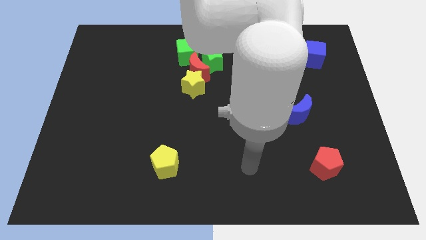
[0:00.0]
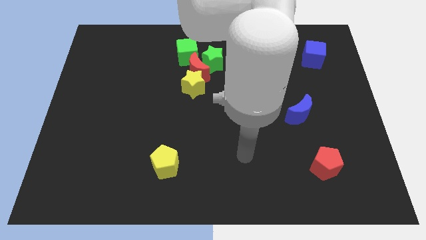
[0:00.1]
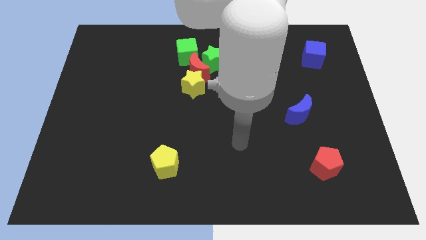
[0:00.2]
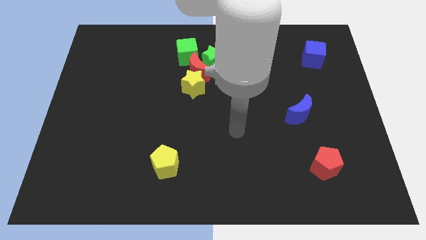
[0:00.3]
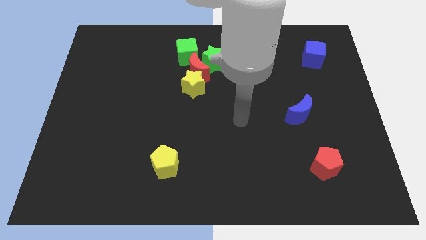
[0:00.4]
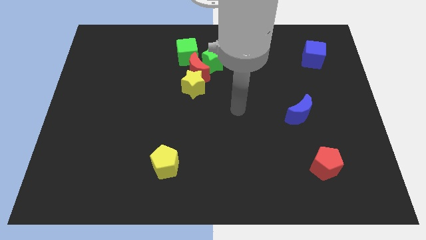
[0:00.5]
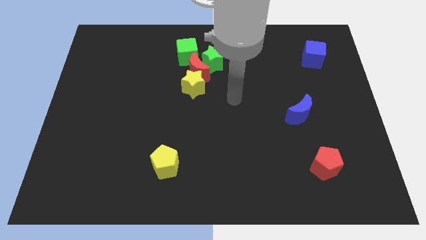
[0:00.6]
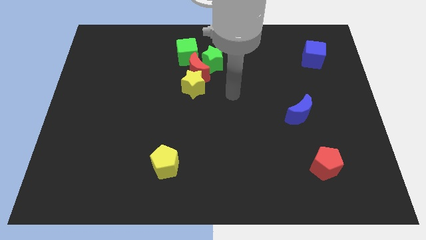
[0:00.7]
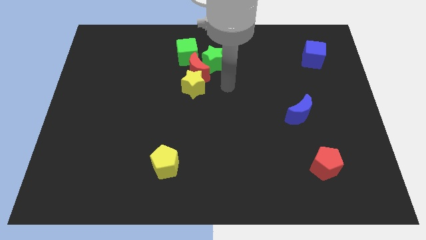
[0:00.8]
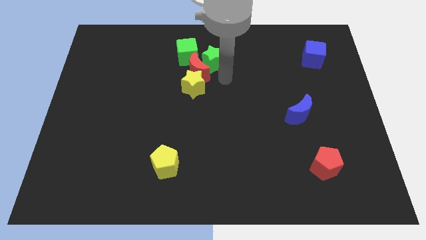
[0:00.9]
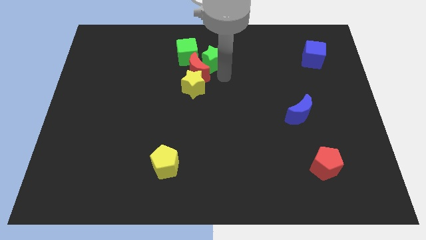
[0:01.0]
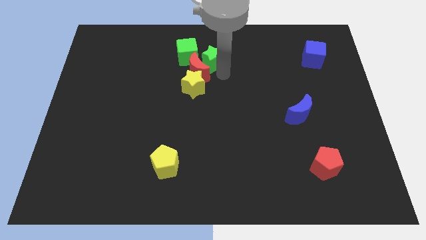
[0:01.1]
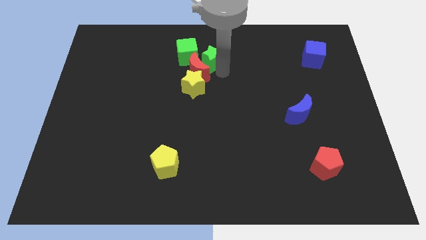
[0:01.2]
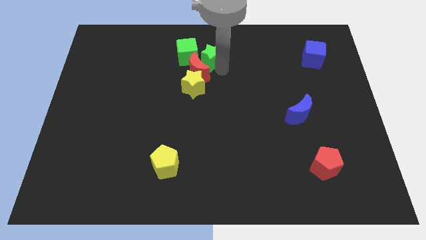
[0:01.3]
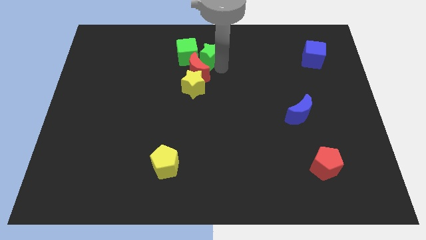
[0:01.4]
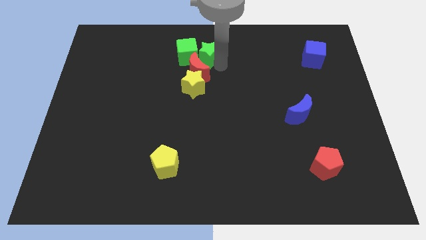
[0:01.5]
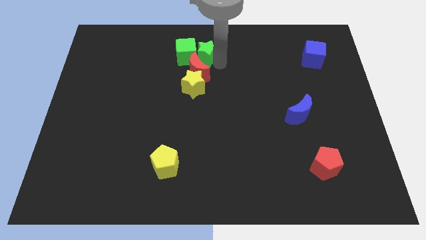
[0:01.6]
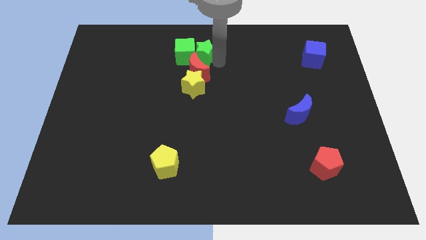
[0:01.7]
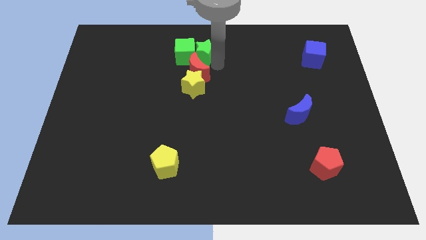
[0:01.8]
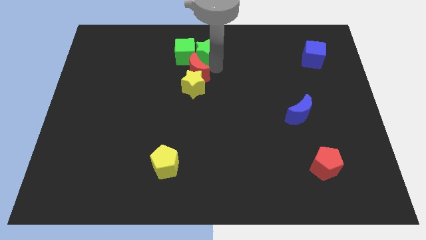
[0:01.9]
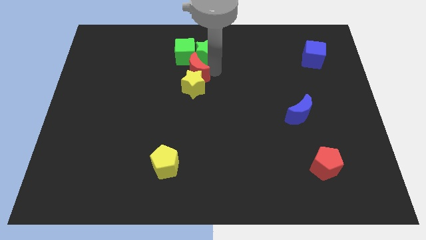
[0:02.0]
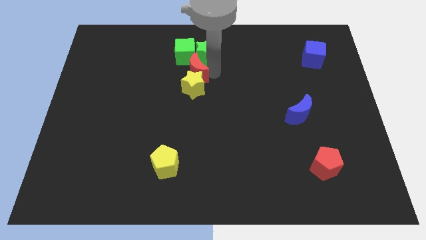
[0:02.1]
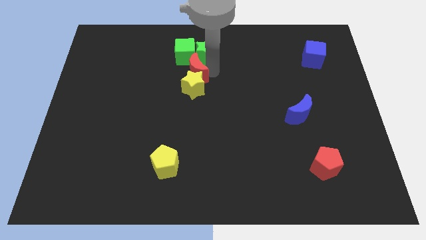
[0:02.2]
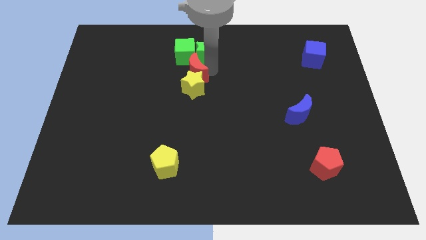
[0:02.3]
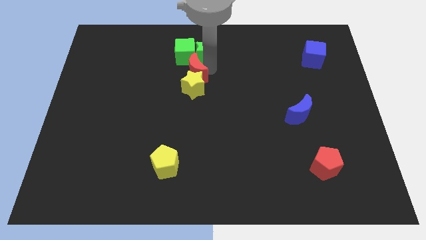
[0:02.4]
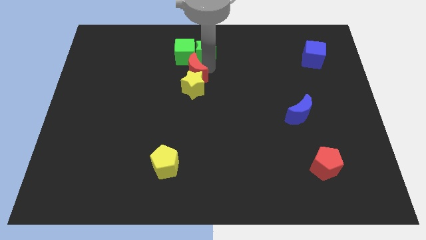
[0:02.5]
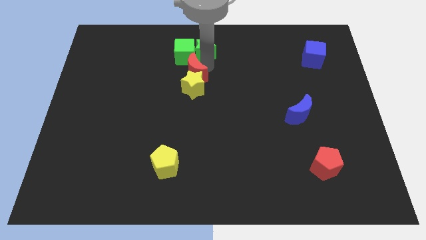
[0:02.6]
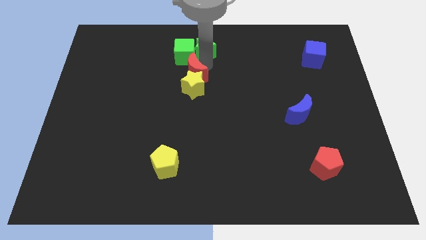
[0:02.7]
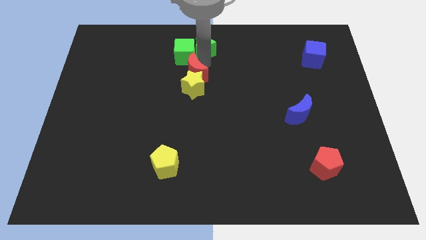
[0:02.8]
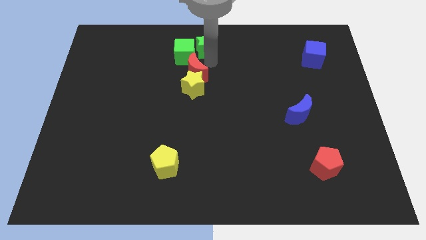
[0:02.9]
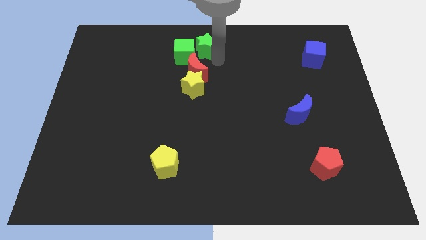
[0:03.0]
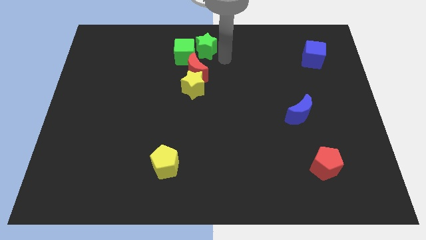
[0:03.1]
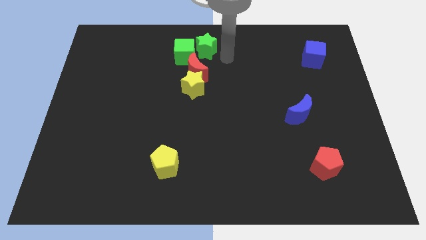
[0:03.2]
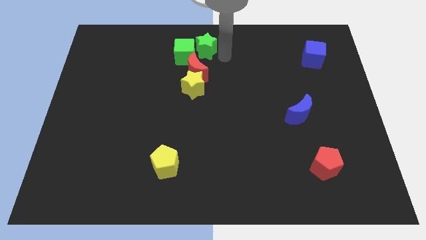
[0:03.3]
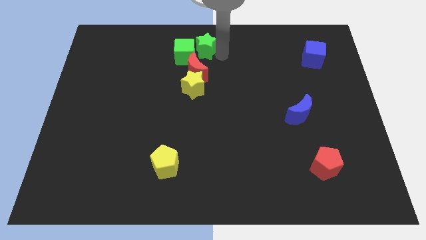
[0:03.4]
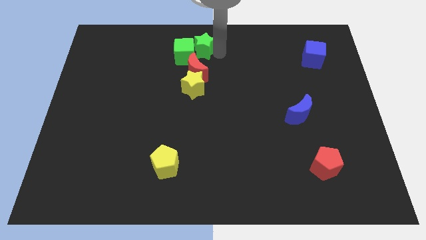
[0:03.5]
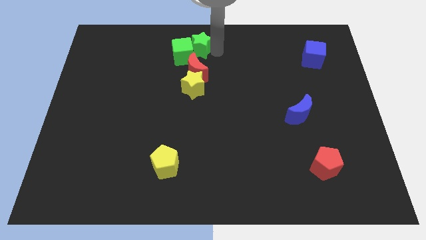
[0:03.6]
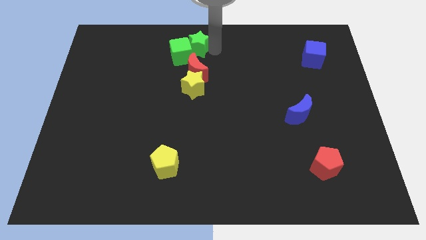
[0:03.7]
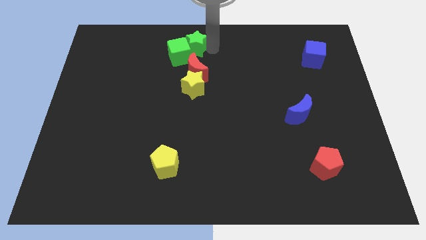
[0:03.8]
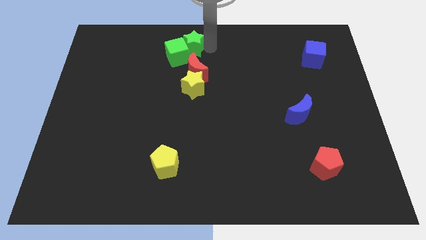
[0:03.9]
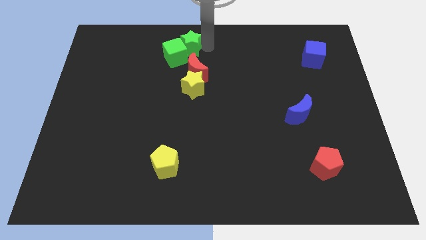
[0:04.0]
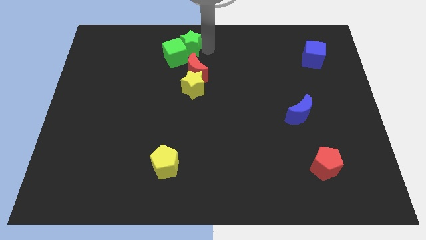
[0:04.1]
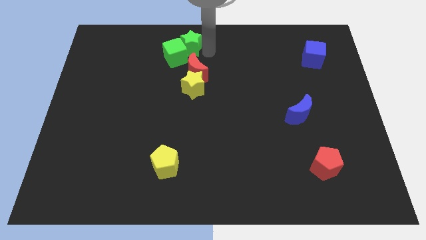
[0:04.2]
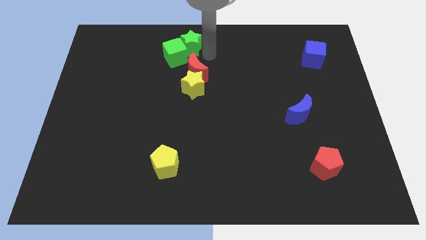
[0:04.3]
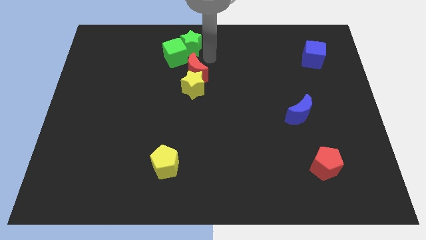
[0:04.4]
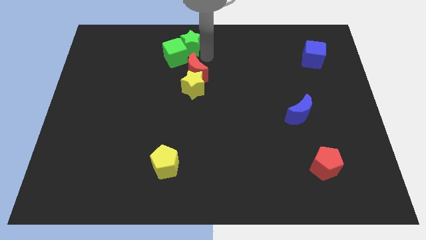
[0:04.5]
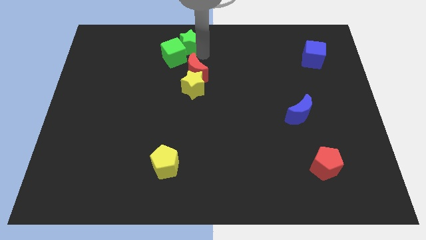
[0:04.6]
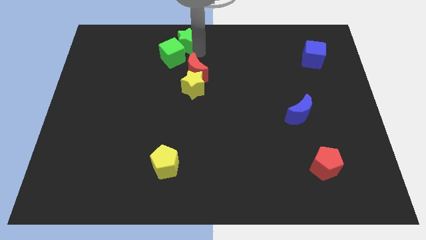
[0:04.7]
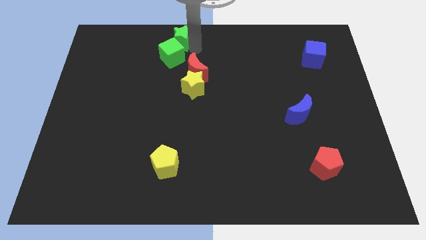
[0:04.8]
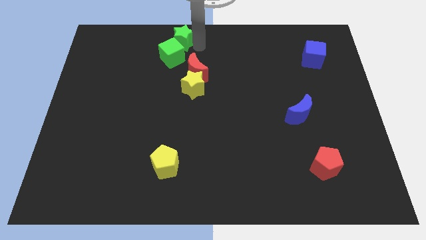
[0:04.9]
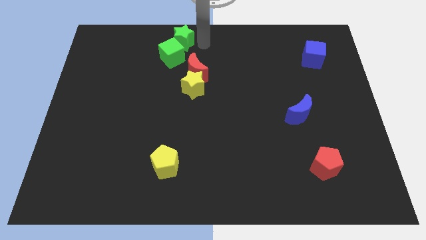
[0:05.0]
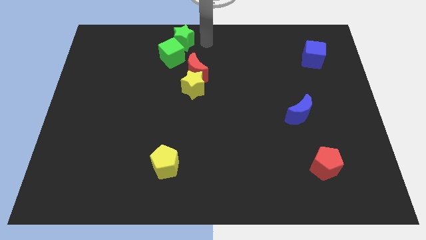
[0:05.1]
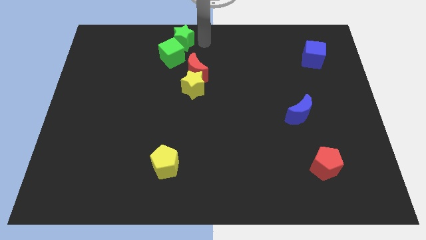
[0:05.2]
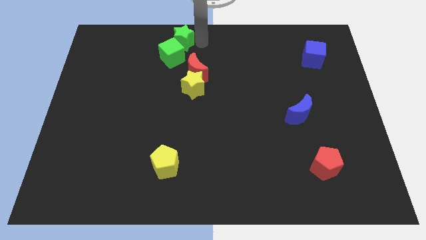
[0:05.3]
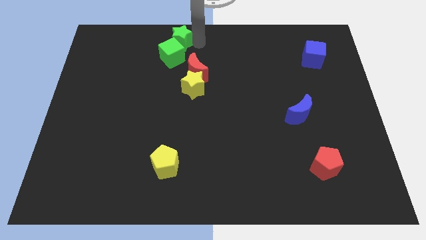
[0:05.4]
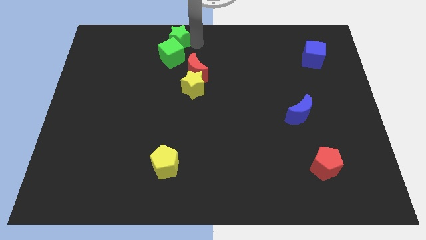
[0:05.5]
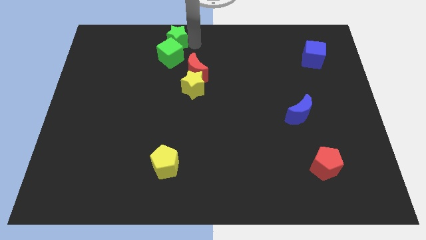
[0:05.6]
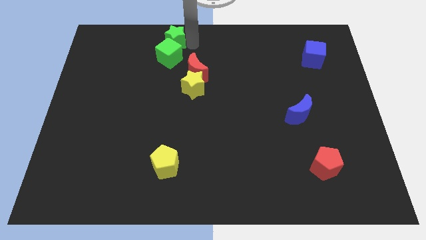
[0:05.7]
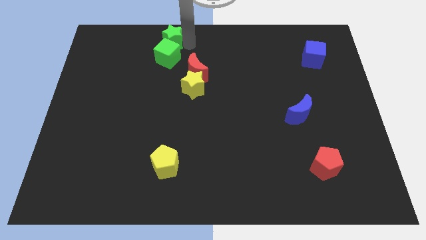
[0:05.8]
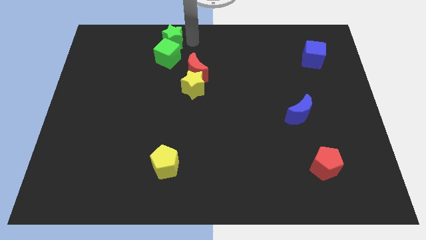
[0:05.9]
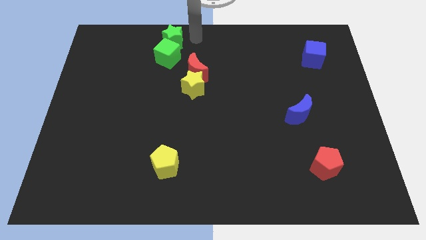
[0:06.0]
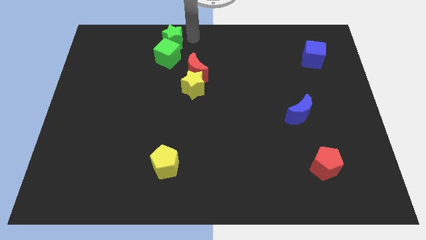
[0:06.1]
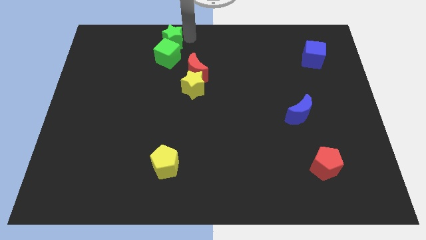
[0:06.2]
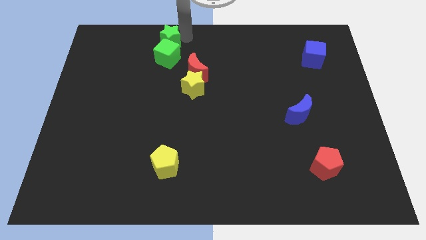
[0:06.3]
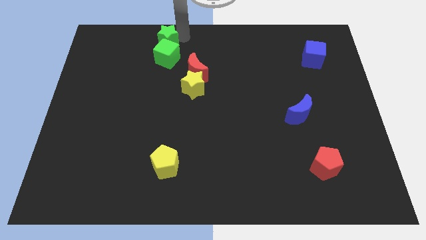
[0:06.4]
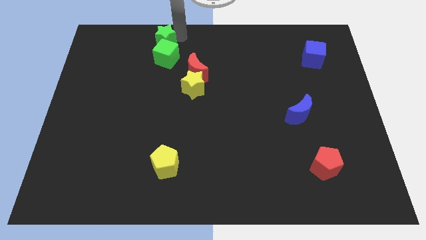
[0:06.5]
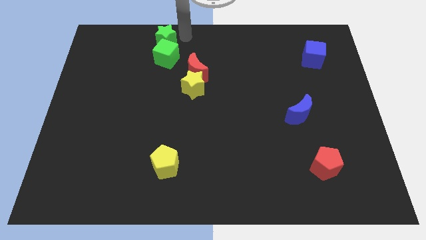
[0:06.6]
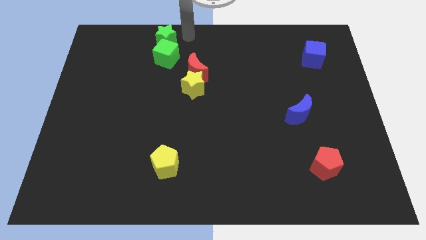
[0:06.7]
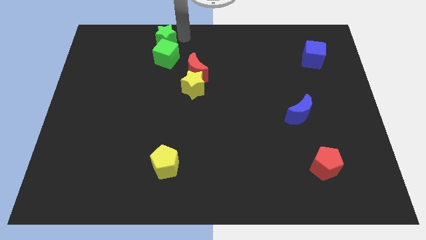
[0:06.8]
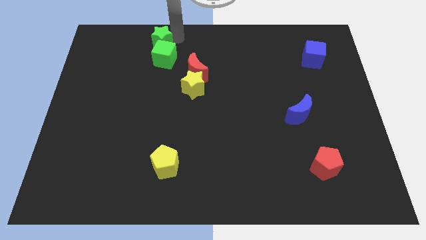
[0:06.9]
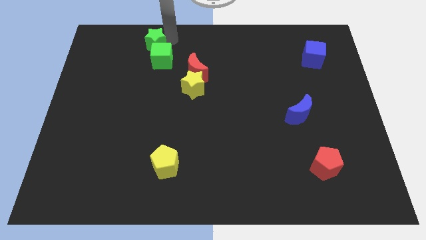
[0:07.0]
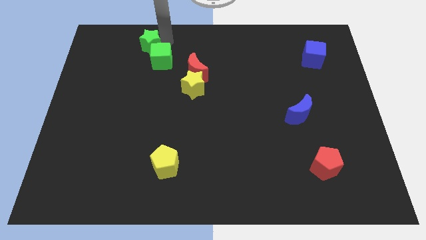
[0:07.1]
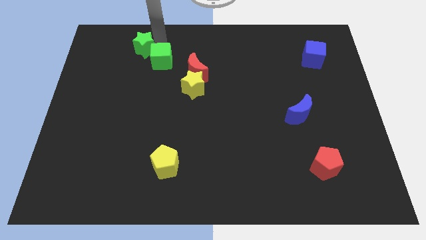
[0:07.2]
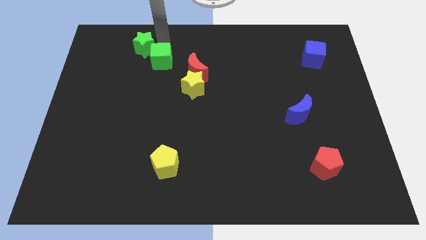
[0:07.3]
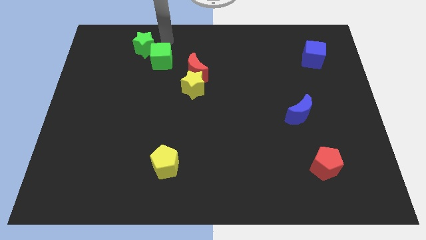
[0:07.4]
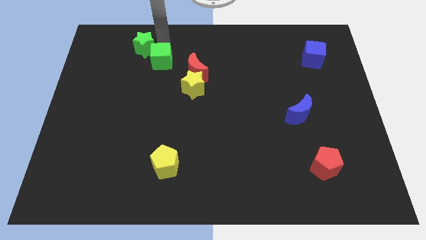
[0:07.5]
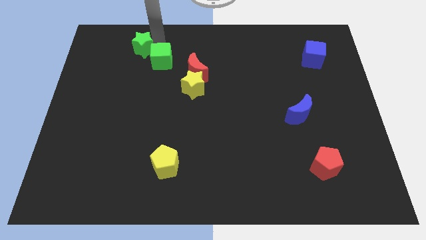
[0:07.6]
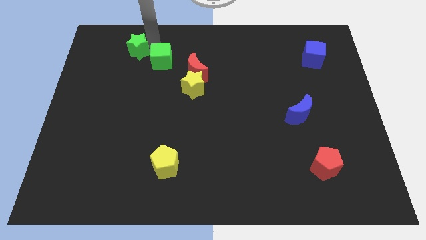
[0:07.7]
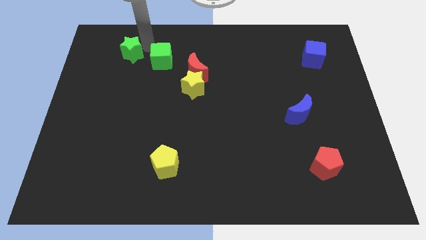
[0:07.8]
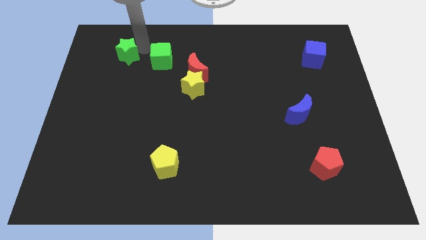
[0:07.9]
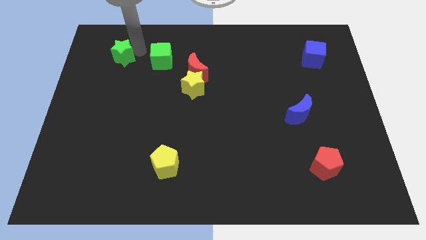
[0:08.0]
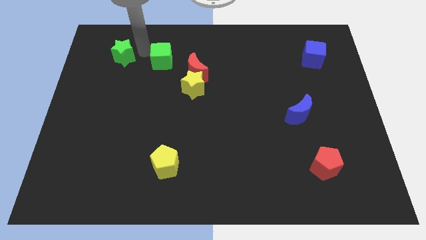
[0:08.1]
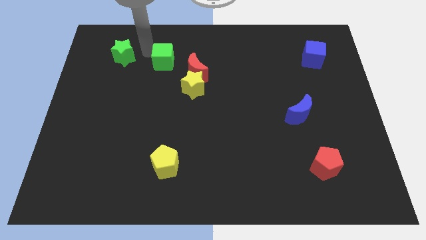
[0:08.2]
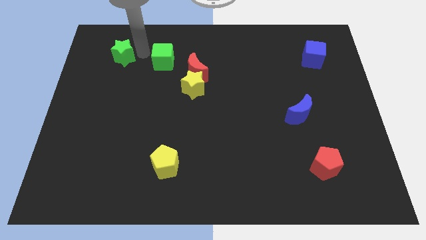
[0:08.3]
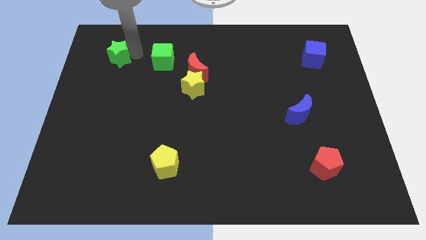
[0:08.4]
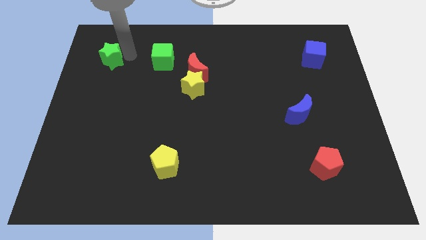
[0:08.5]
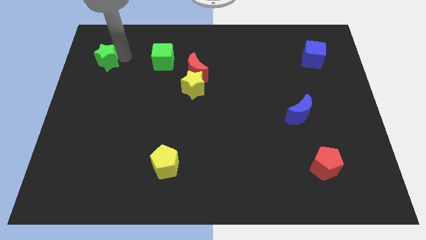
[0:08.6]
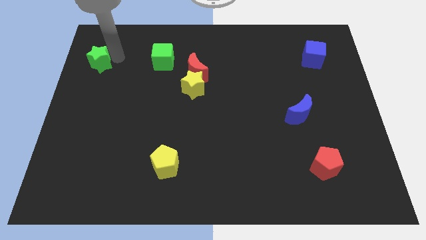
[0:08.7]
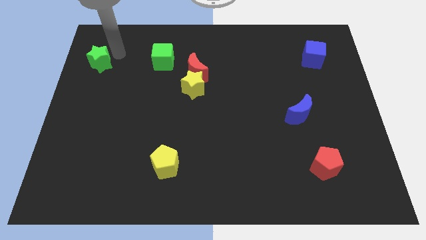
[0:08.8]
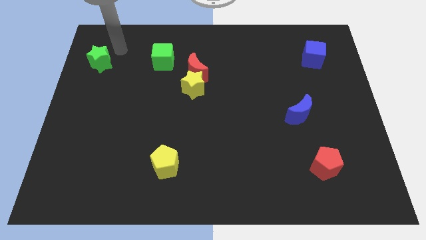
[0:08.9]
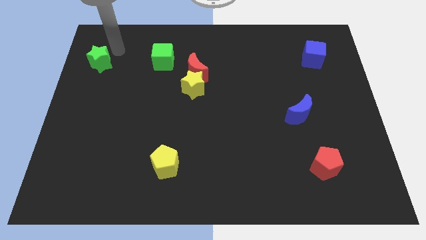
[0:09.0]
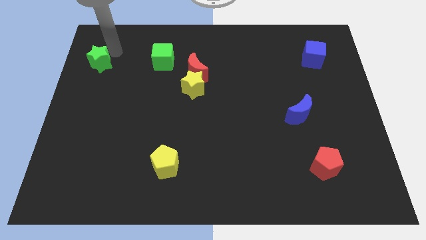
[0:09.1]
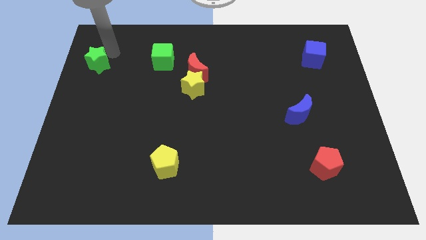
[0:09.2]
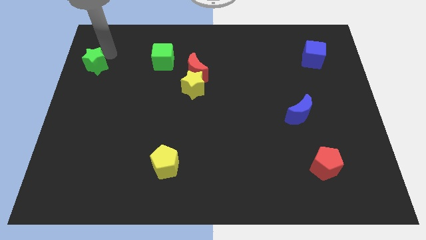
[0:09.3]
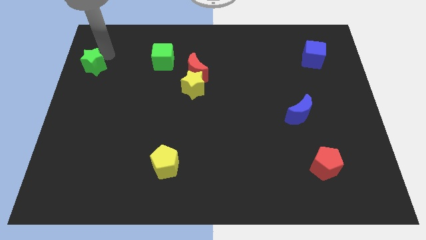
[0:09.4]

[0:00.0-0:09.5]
move the green star to the left side
